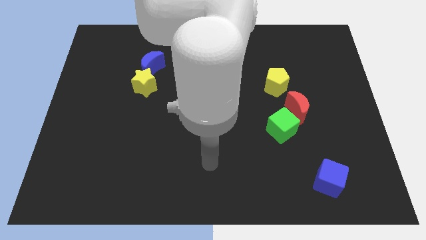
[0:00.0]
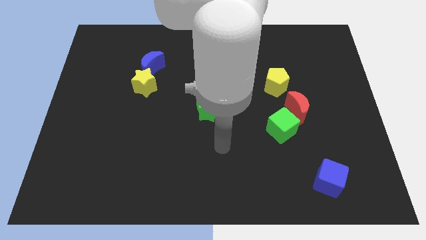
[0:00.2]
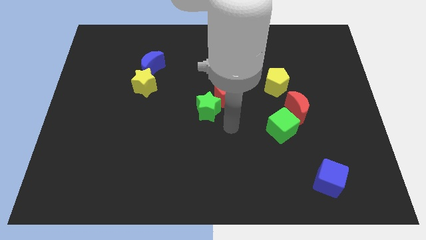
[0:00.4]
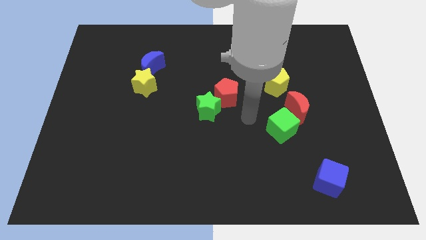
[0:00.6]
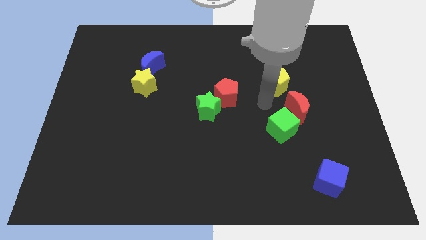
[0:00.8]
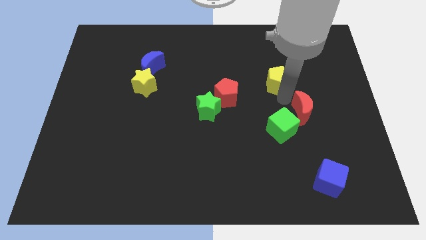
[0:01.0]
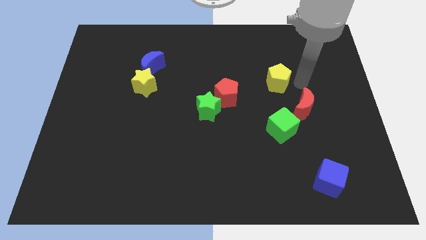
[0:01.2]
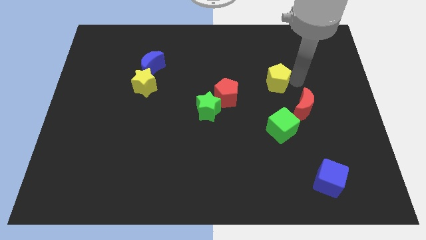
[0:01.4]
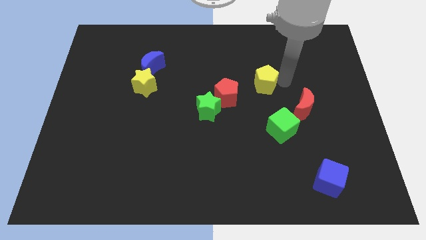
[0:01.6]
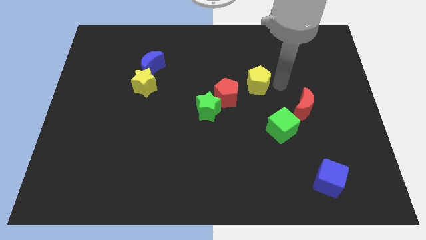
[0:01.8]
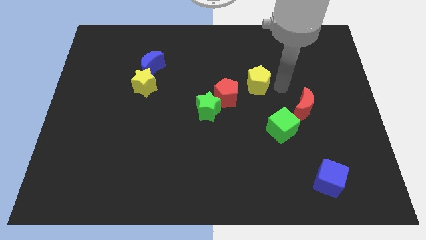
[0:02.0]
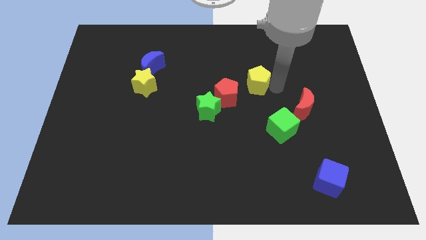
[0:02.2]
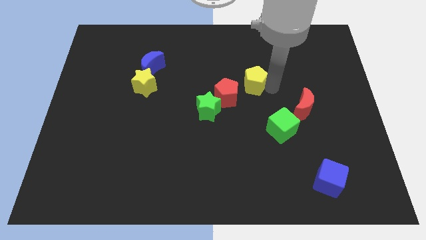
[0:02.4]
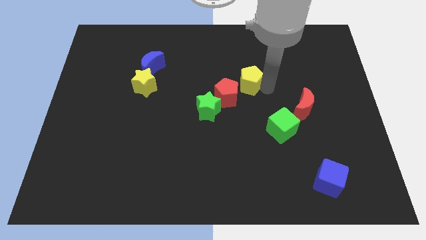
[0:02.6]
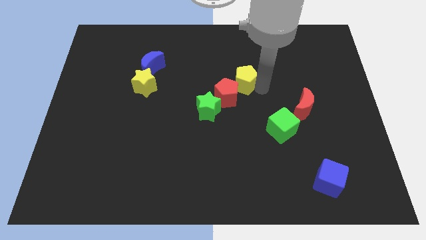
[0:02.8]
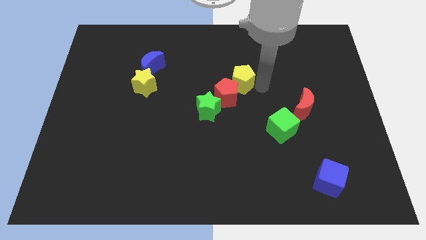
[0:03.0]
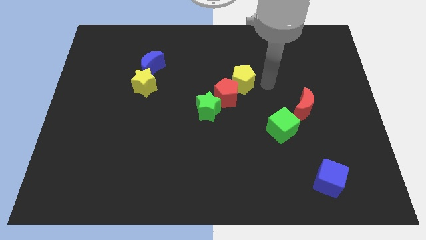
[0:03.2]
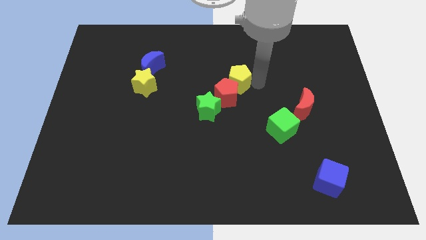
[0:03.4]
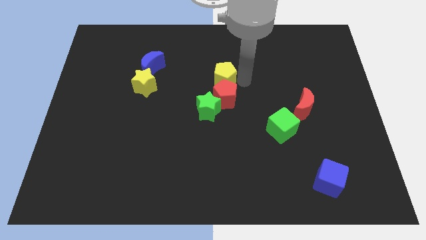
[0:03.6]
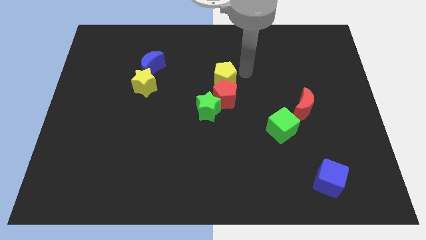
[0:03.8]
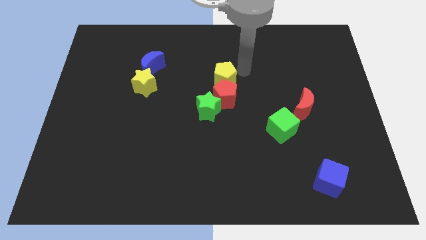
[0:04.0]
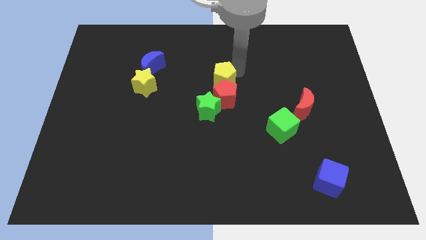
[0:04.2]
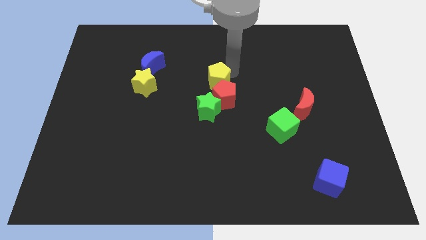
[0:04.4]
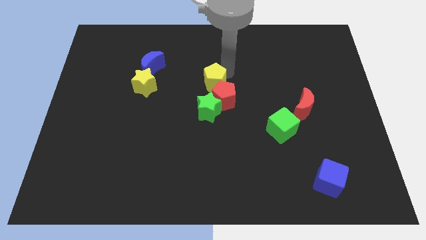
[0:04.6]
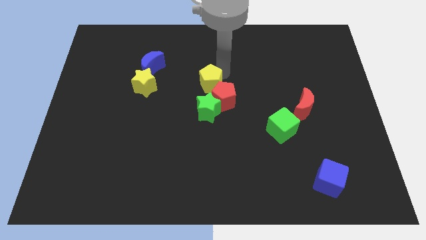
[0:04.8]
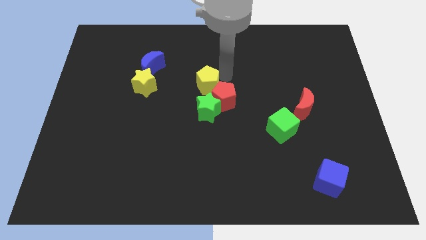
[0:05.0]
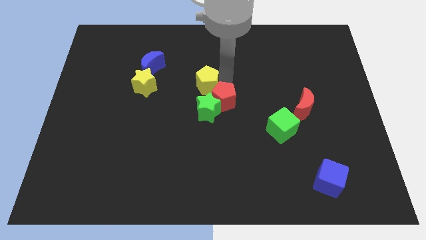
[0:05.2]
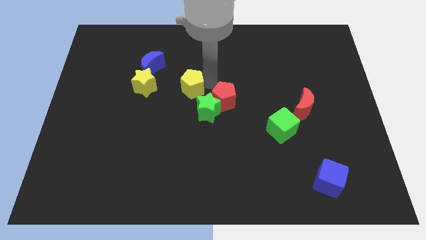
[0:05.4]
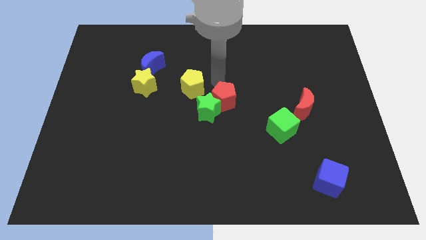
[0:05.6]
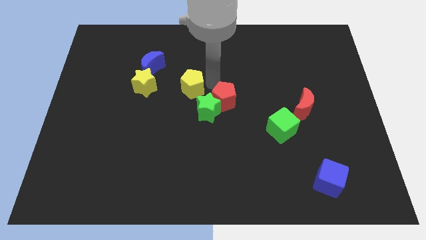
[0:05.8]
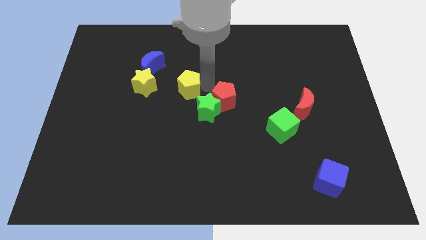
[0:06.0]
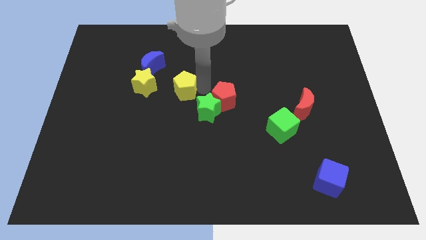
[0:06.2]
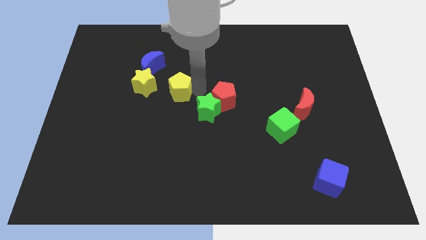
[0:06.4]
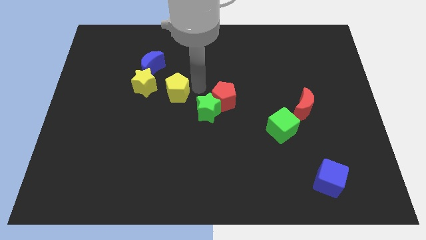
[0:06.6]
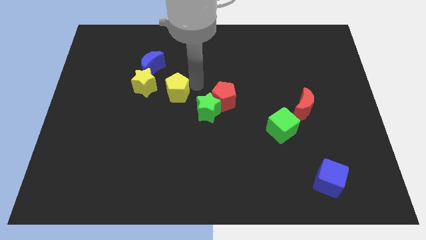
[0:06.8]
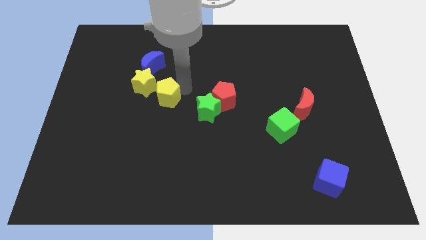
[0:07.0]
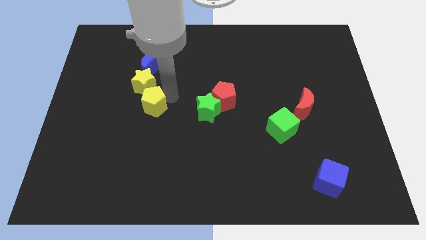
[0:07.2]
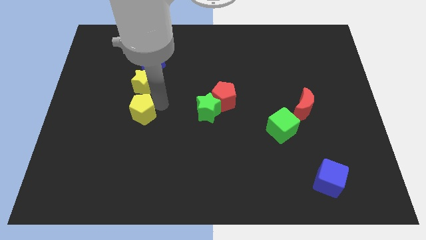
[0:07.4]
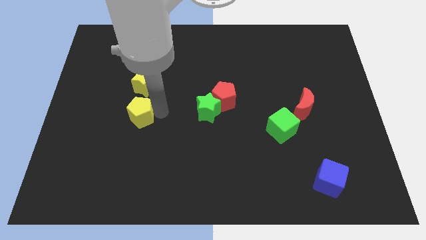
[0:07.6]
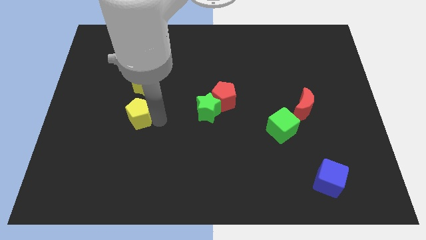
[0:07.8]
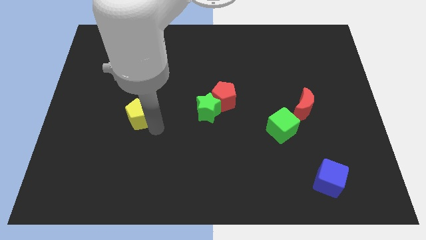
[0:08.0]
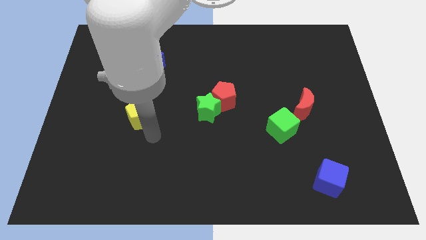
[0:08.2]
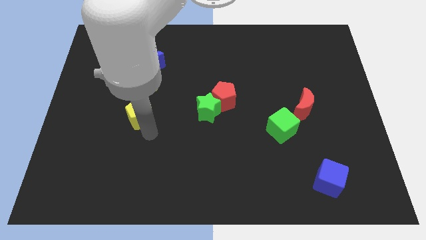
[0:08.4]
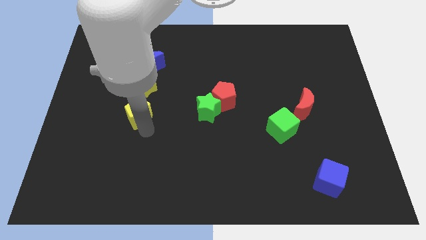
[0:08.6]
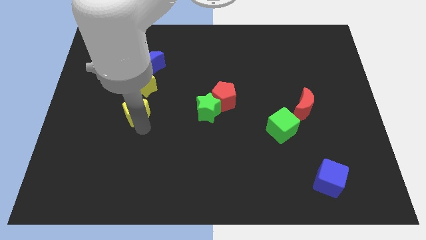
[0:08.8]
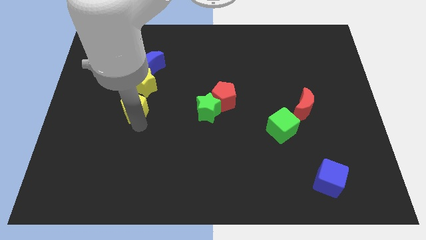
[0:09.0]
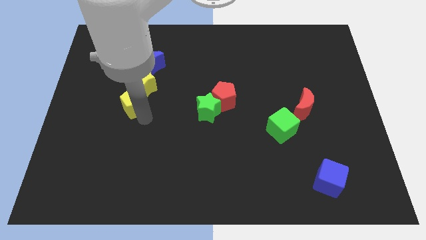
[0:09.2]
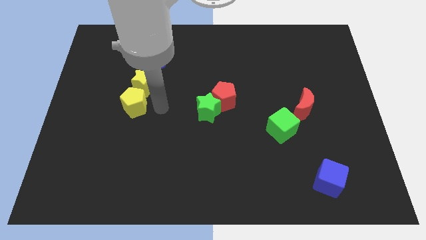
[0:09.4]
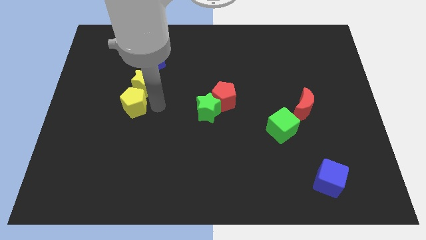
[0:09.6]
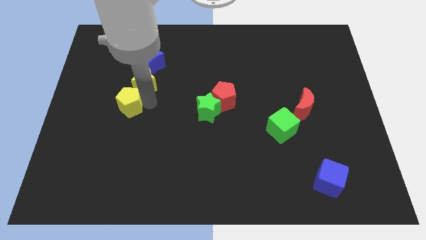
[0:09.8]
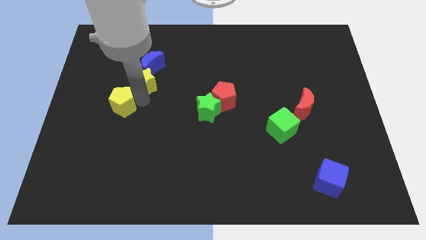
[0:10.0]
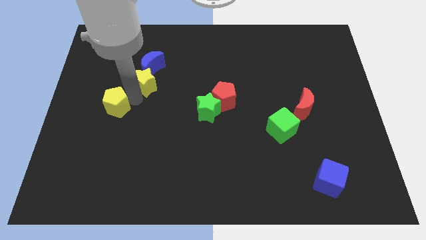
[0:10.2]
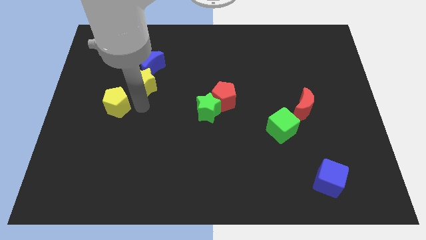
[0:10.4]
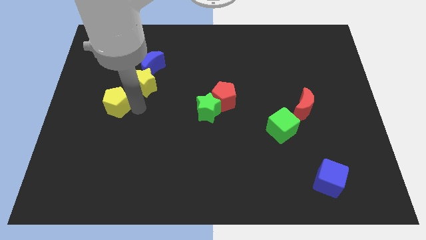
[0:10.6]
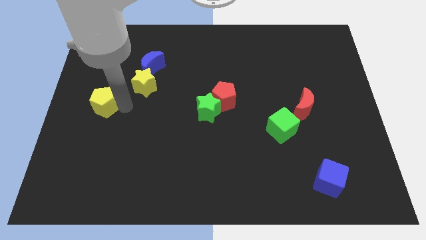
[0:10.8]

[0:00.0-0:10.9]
put the yellow pentagon to the center left

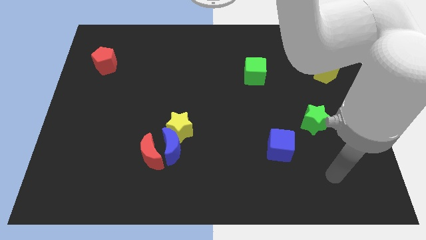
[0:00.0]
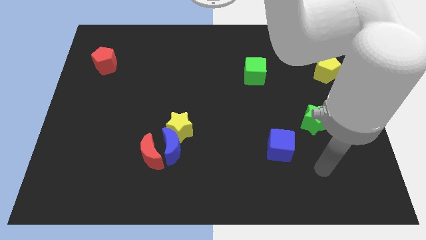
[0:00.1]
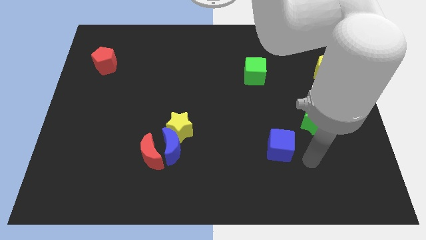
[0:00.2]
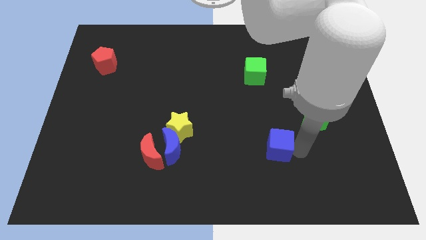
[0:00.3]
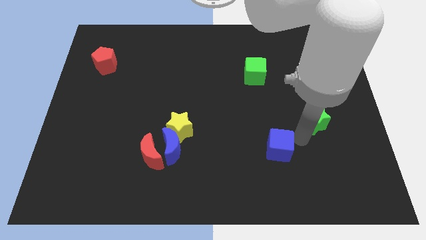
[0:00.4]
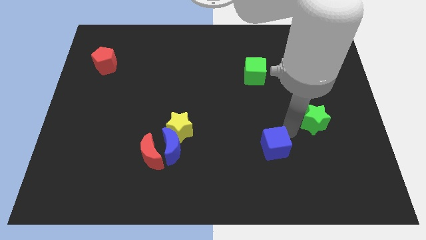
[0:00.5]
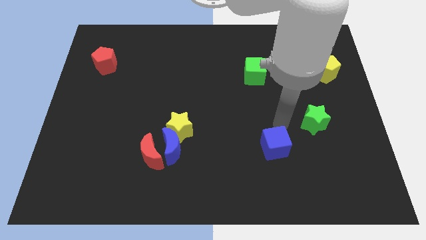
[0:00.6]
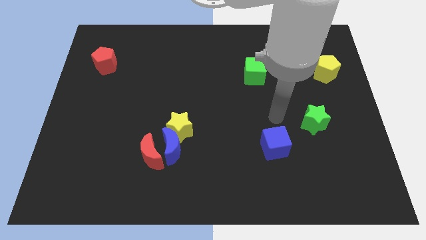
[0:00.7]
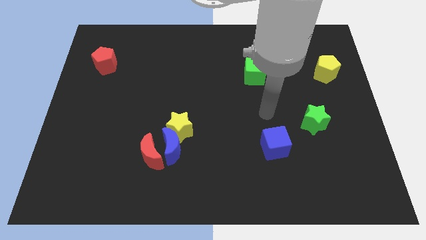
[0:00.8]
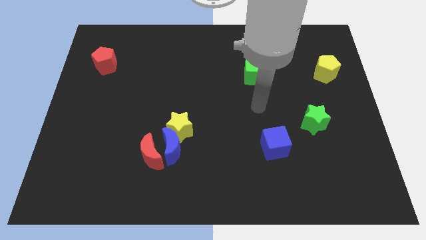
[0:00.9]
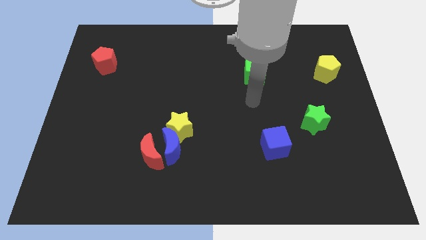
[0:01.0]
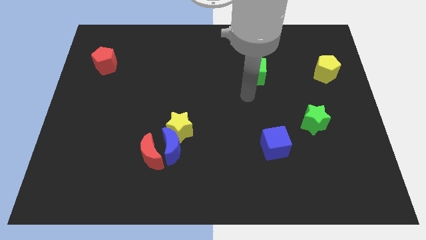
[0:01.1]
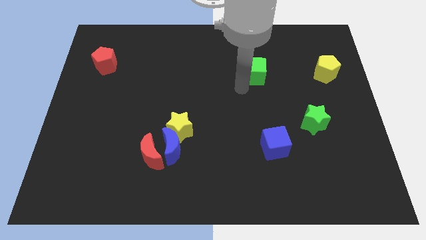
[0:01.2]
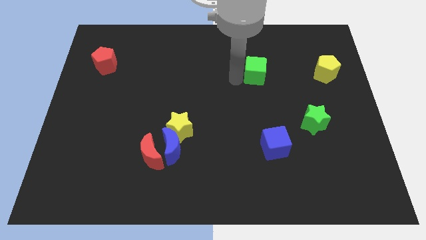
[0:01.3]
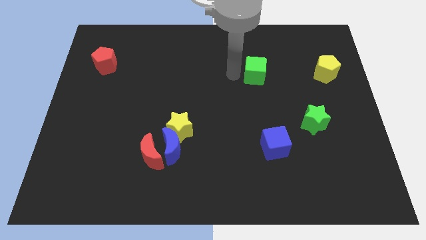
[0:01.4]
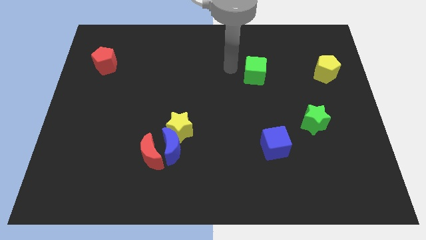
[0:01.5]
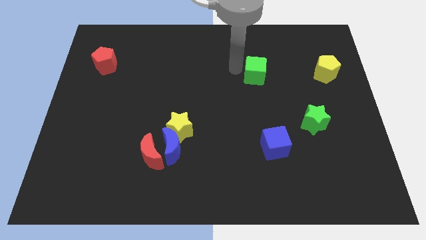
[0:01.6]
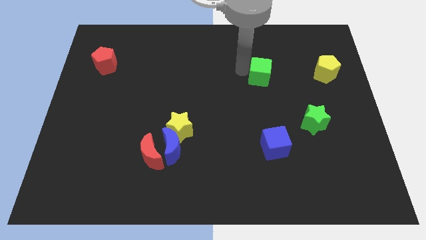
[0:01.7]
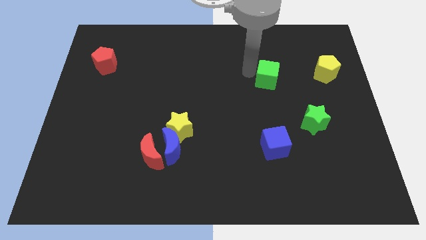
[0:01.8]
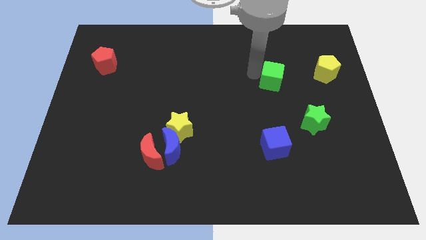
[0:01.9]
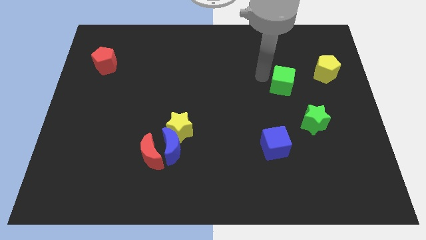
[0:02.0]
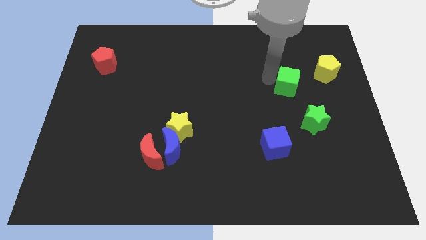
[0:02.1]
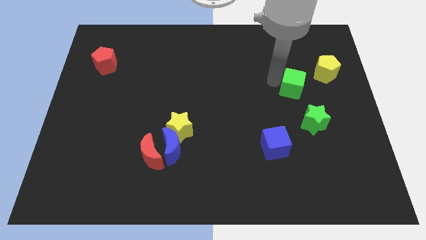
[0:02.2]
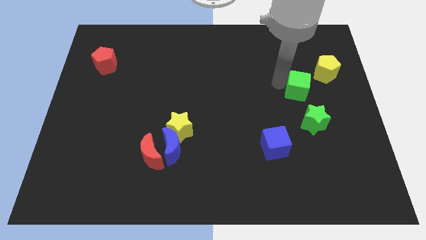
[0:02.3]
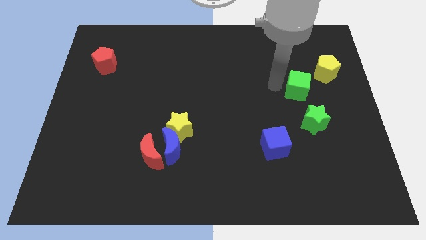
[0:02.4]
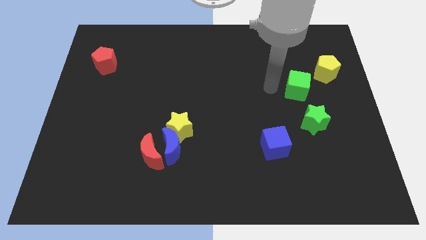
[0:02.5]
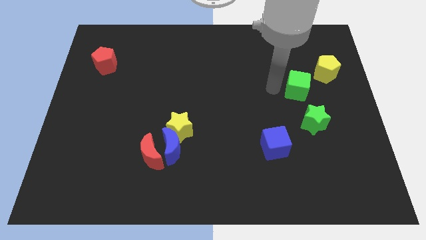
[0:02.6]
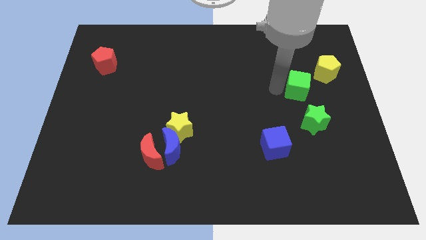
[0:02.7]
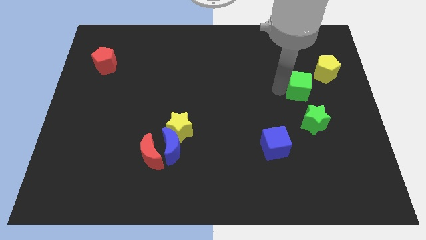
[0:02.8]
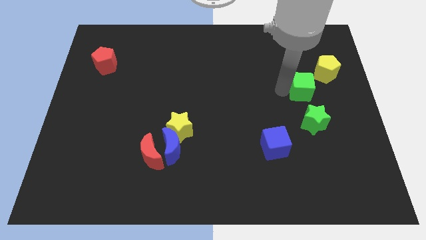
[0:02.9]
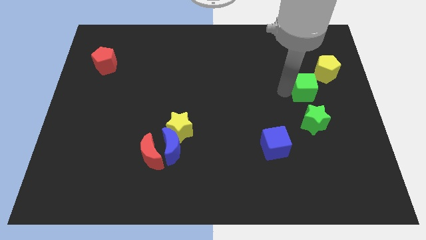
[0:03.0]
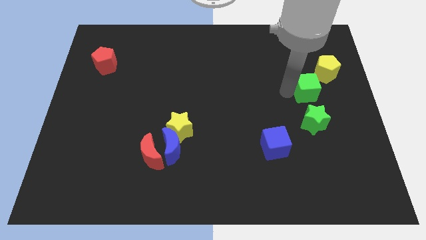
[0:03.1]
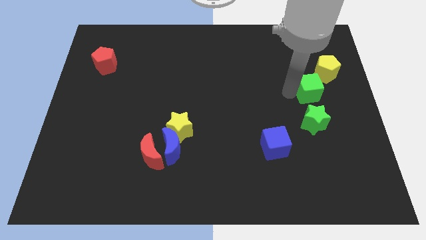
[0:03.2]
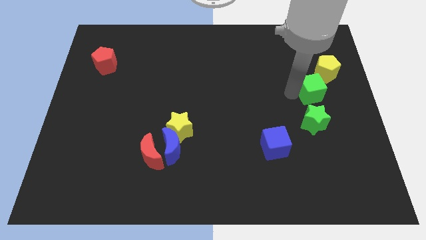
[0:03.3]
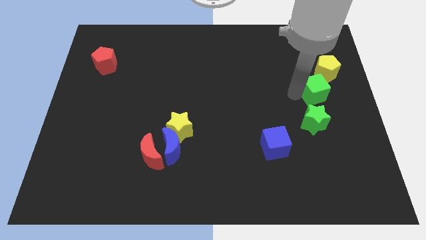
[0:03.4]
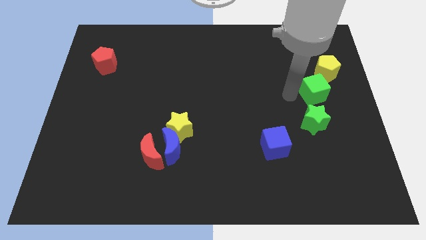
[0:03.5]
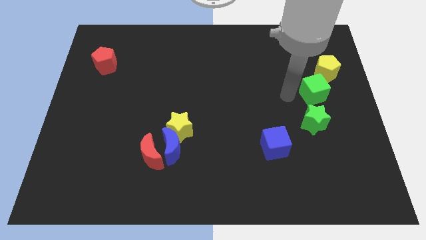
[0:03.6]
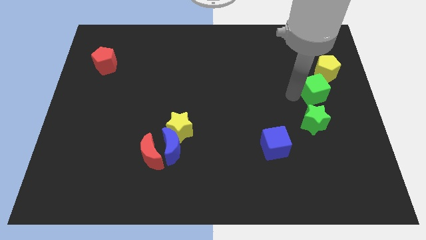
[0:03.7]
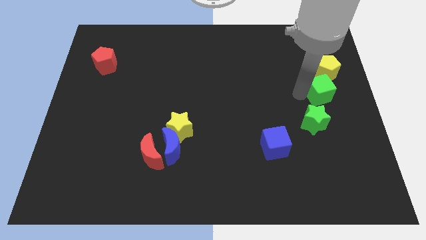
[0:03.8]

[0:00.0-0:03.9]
move the green cube to the right side
